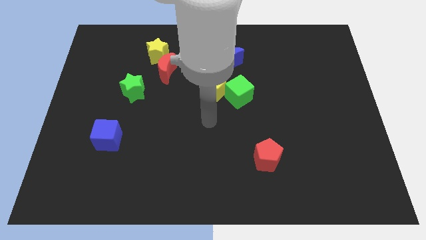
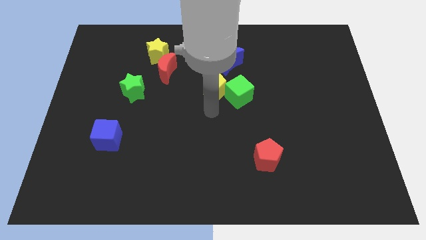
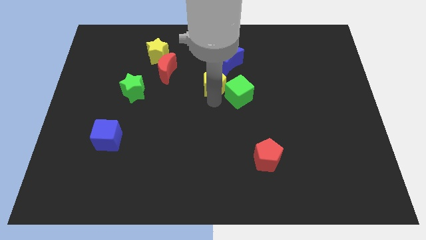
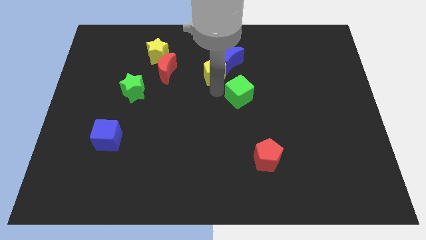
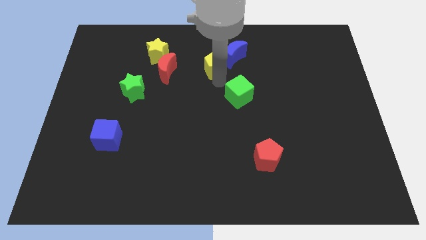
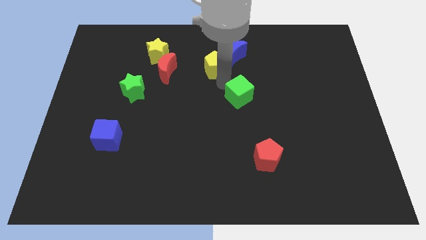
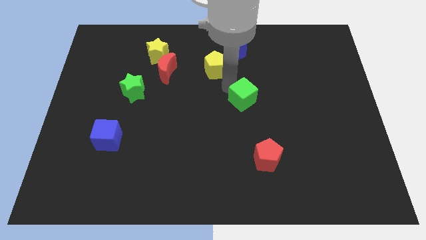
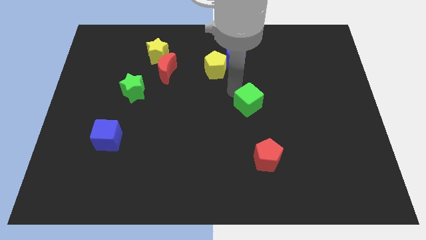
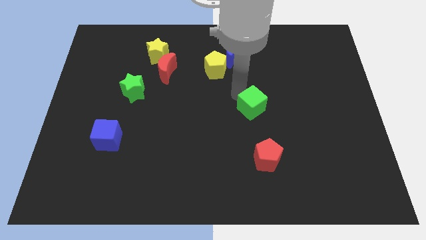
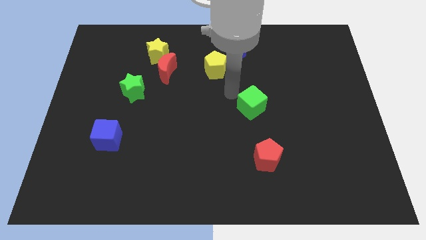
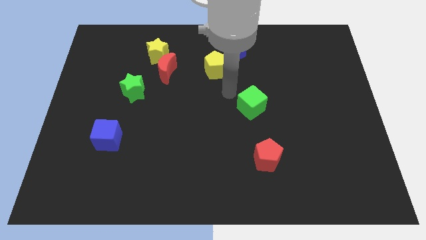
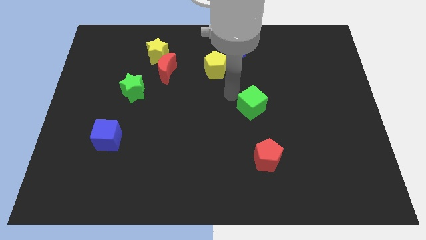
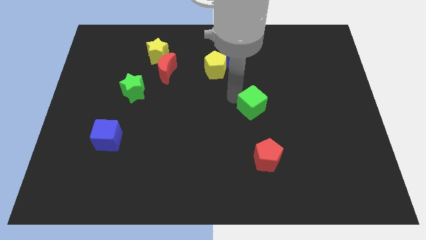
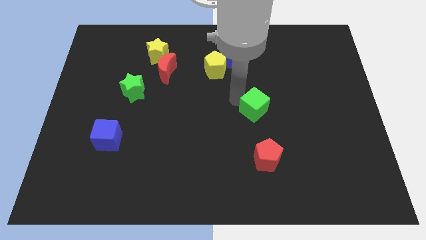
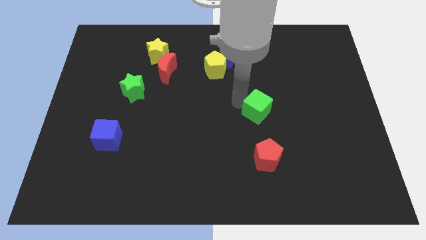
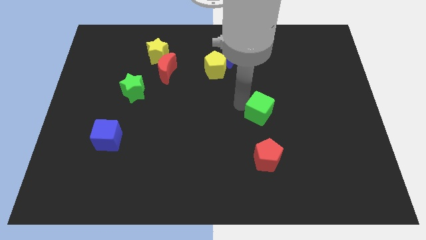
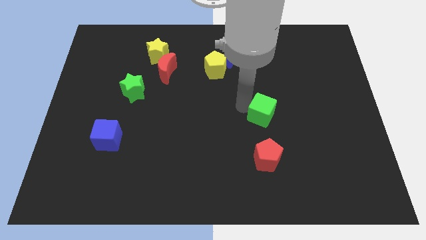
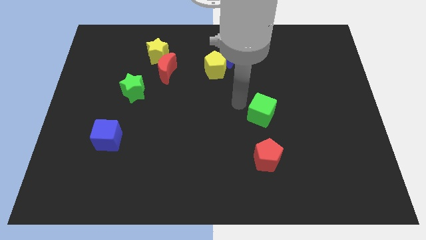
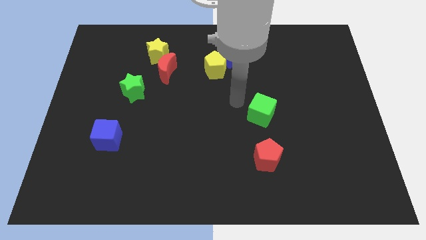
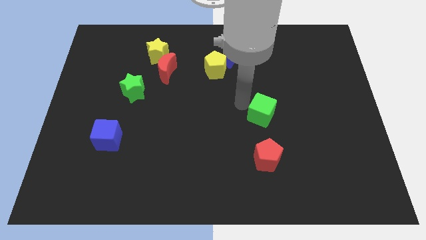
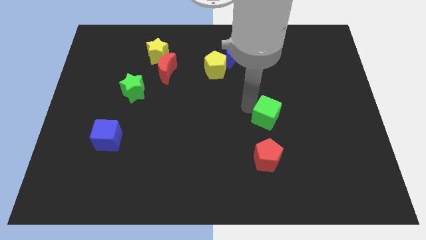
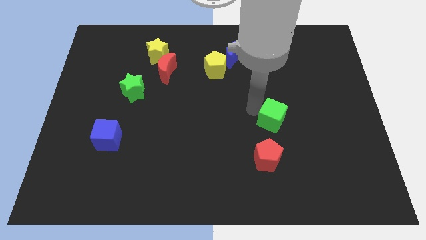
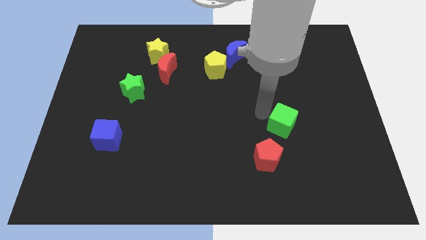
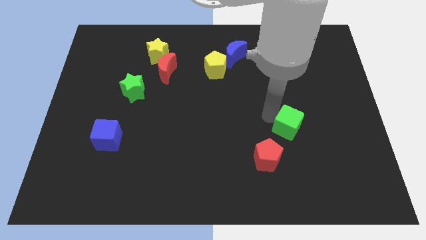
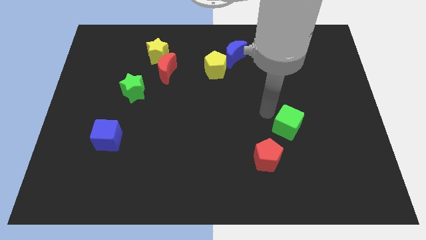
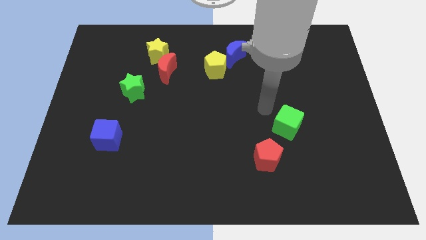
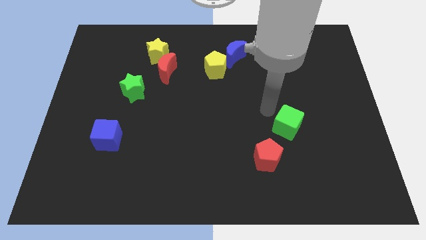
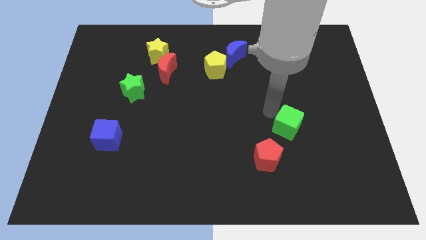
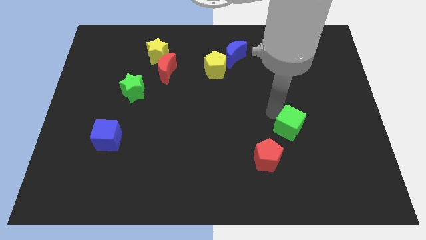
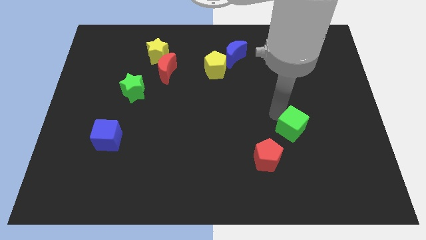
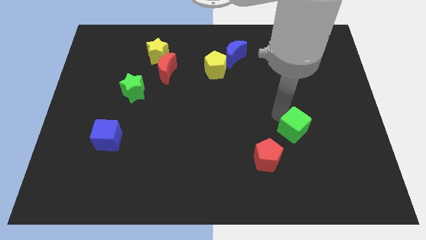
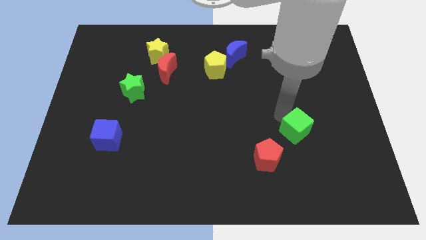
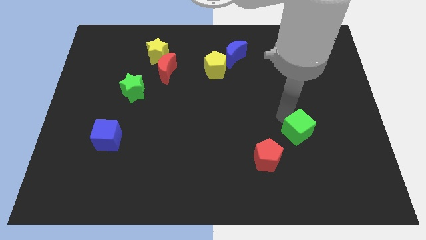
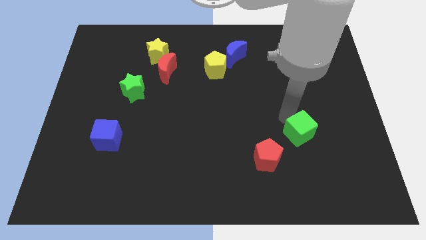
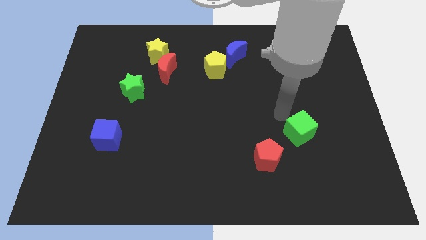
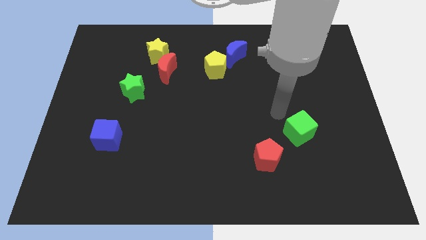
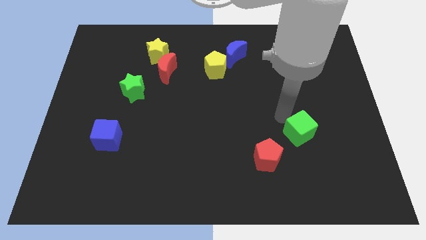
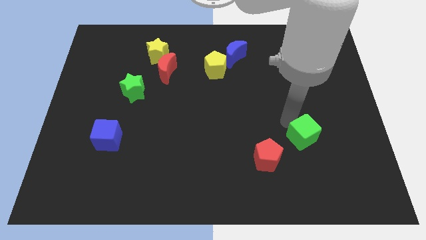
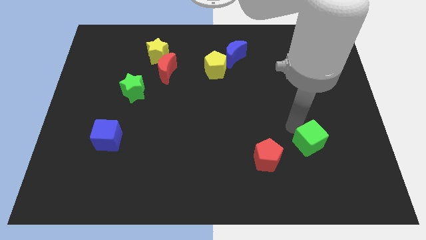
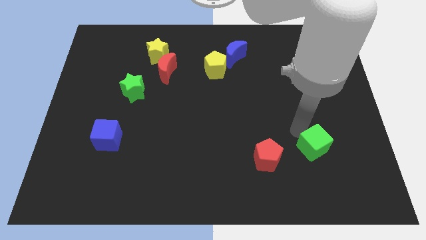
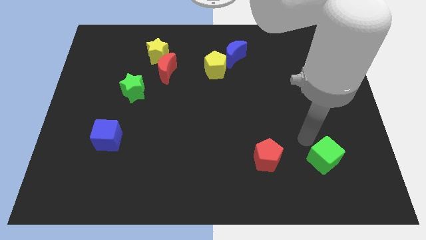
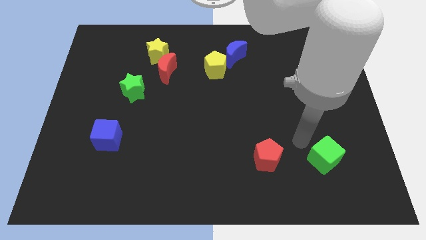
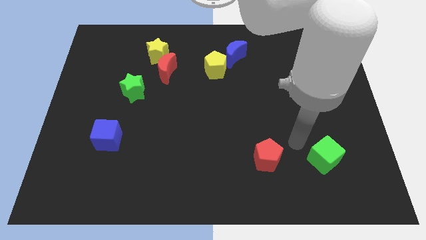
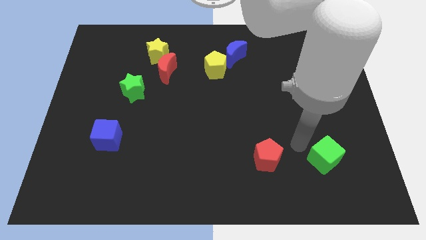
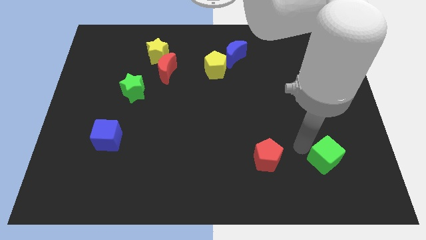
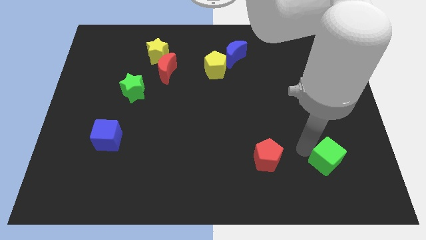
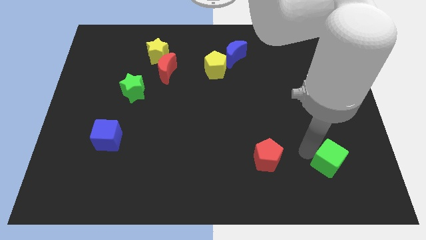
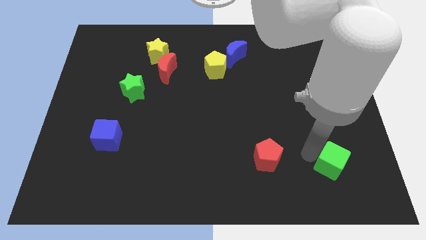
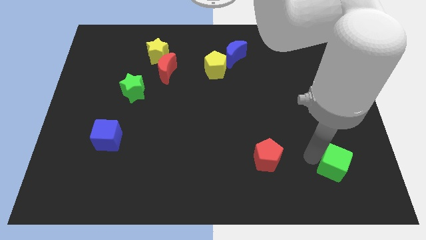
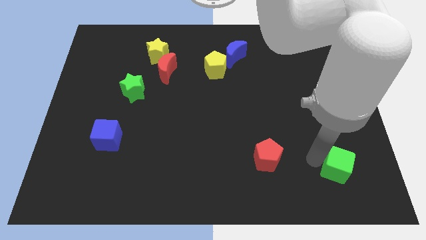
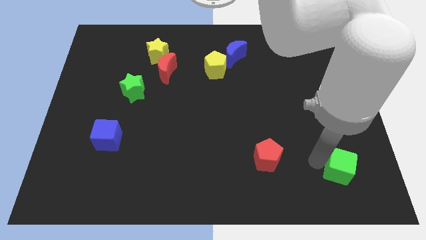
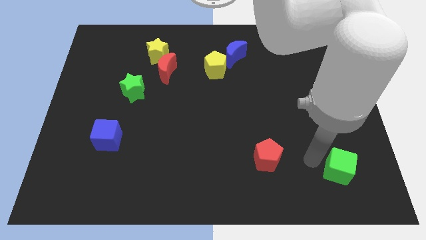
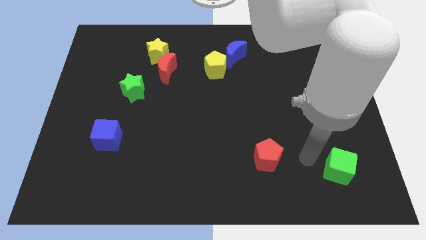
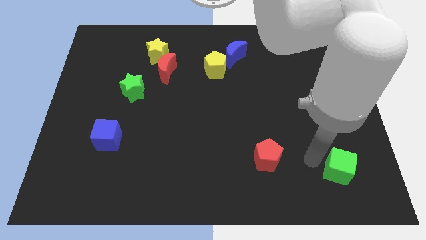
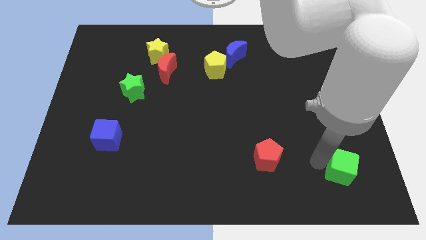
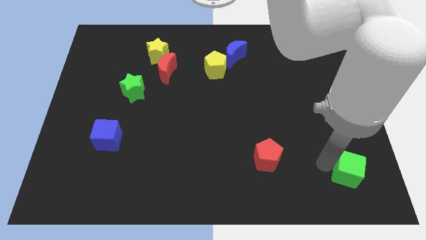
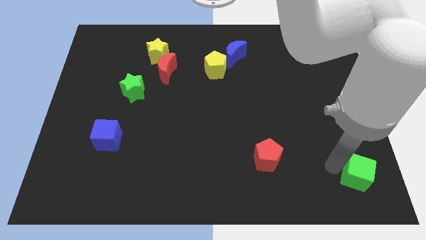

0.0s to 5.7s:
slide the green cube to the bottom right of the board
